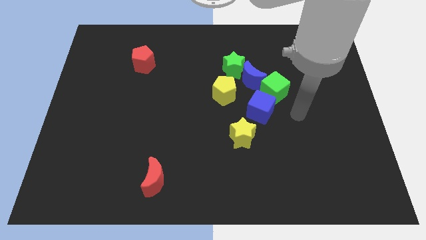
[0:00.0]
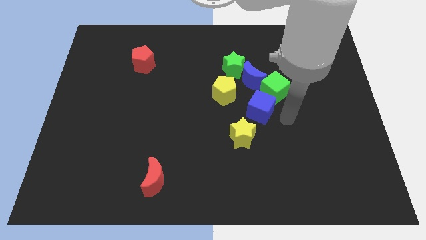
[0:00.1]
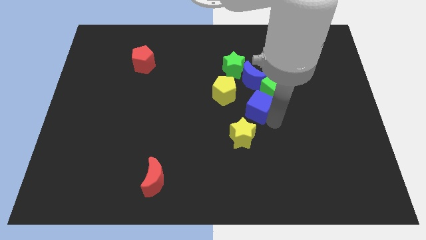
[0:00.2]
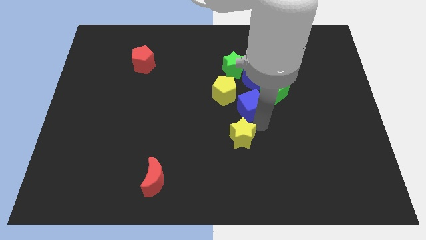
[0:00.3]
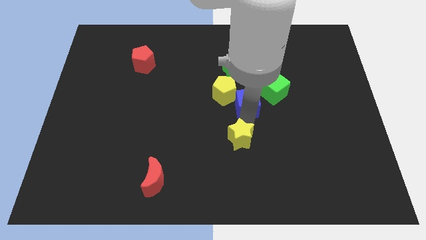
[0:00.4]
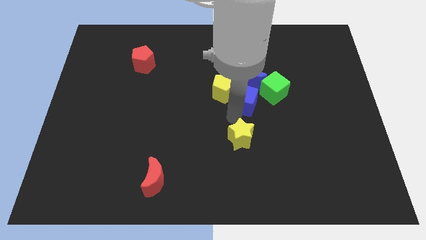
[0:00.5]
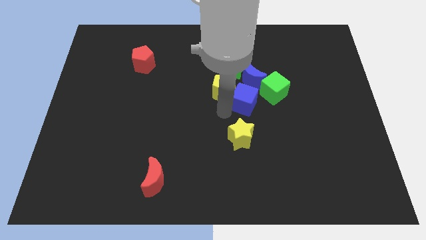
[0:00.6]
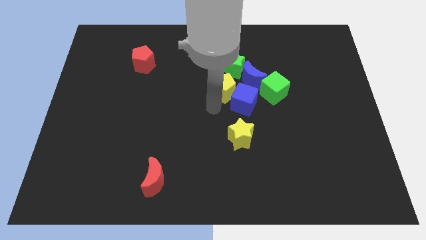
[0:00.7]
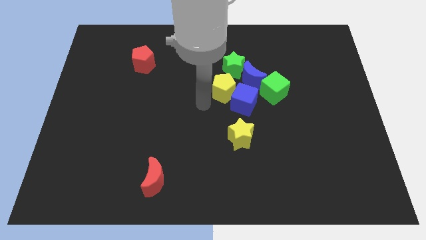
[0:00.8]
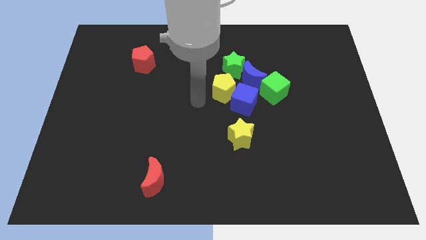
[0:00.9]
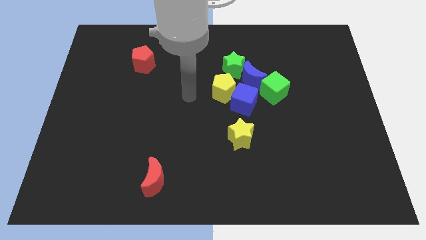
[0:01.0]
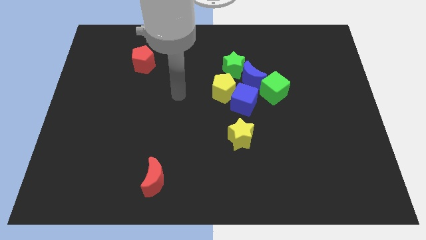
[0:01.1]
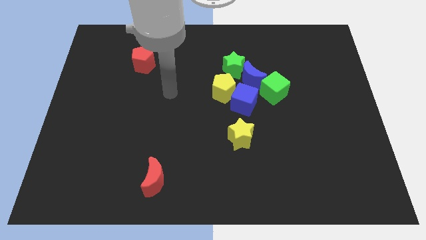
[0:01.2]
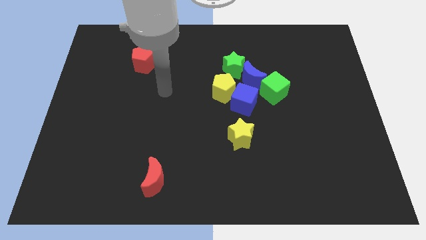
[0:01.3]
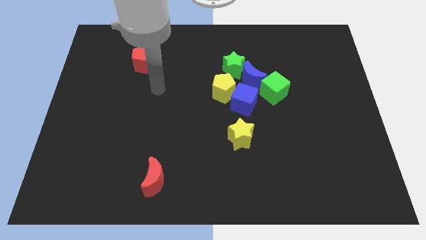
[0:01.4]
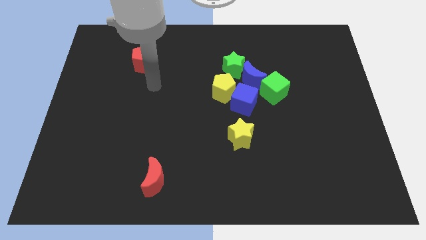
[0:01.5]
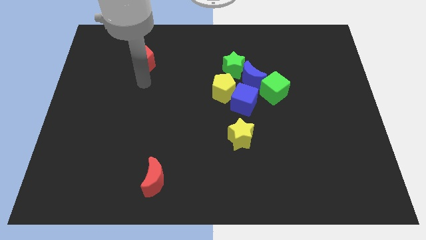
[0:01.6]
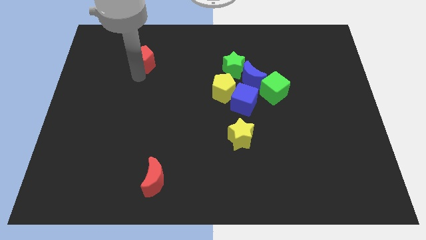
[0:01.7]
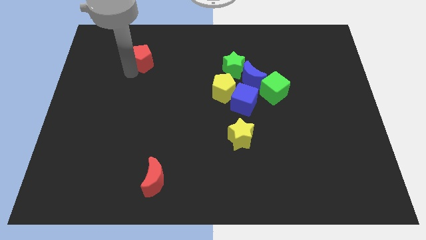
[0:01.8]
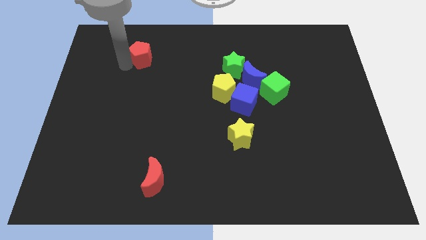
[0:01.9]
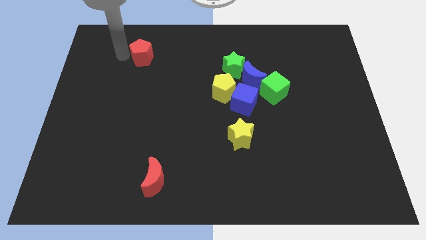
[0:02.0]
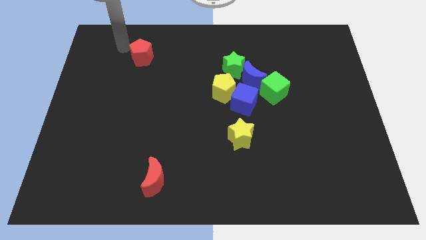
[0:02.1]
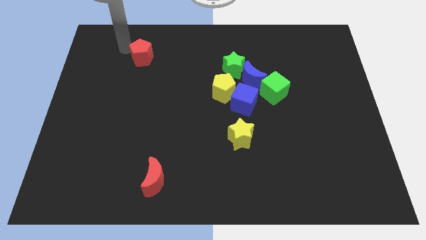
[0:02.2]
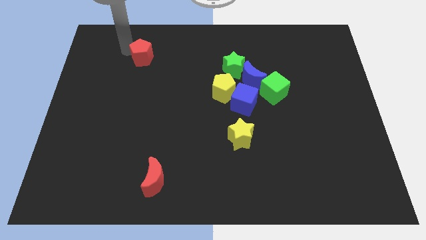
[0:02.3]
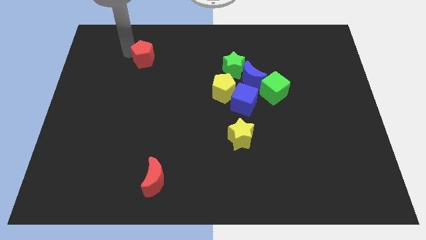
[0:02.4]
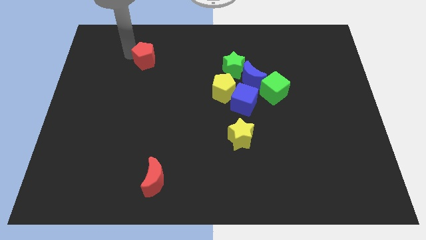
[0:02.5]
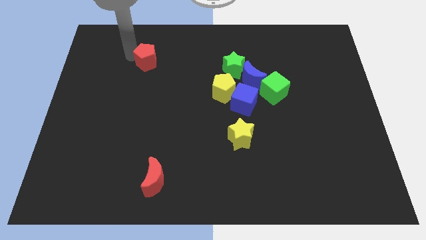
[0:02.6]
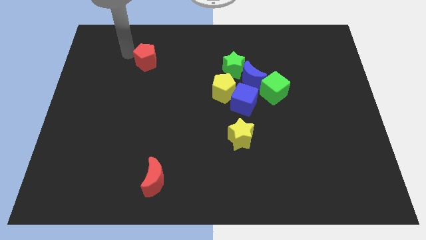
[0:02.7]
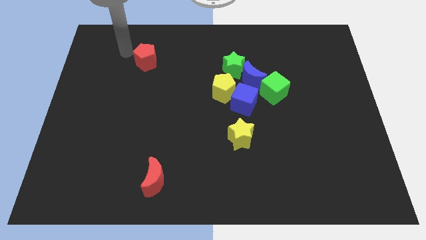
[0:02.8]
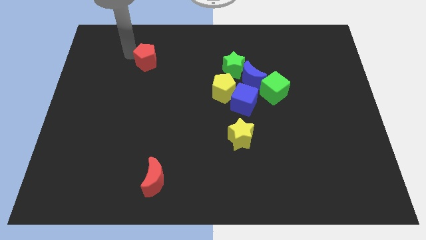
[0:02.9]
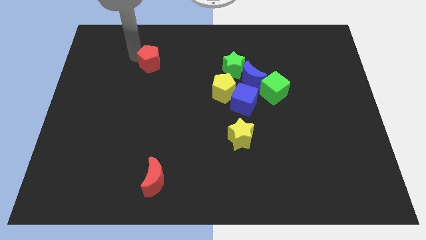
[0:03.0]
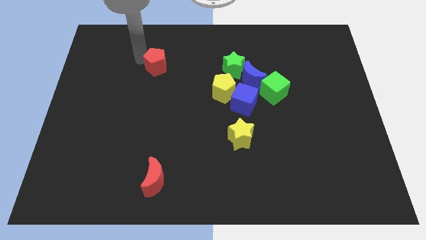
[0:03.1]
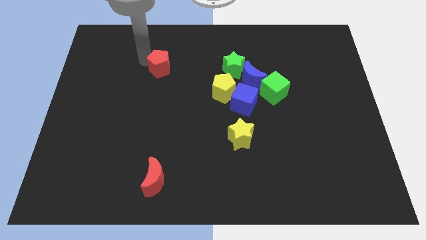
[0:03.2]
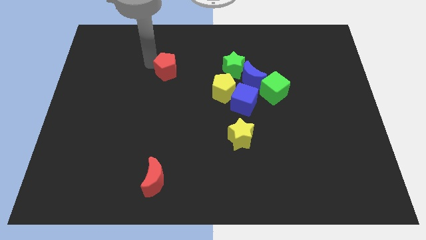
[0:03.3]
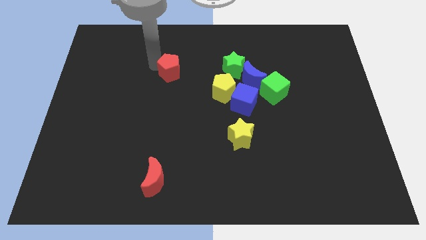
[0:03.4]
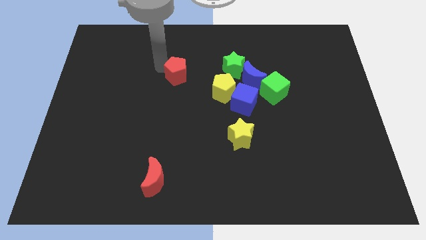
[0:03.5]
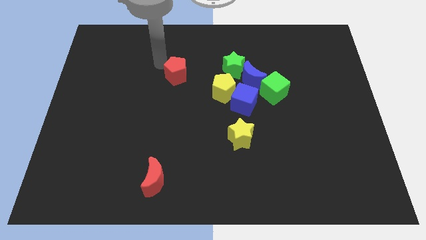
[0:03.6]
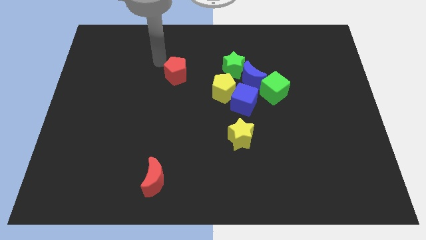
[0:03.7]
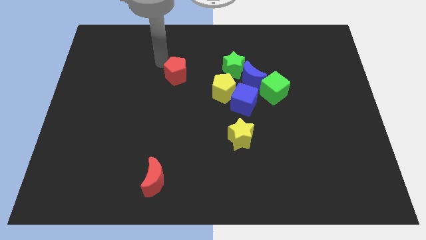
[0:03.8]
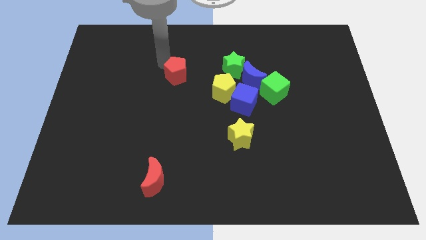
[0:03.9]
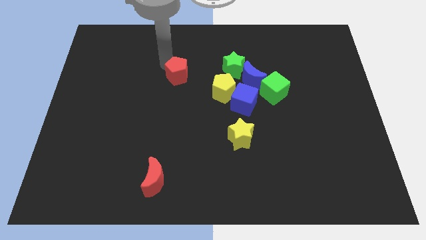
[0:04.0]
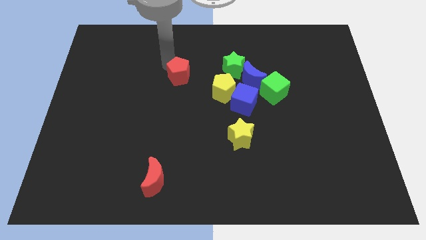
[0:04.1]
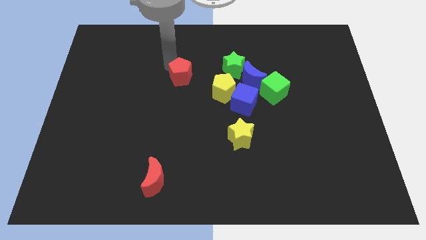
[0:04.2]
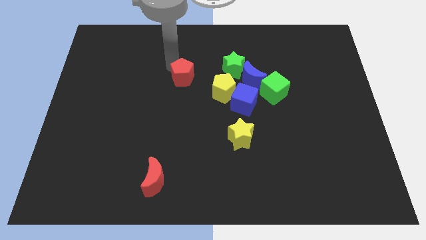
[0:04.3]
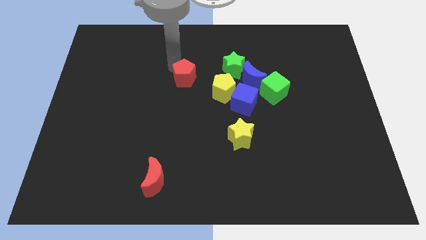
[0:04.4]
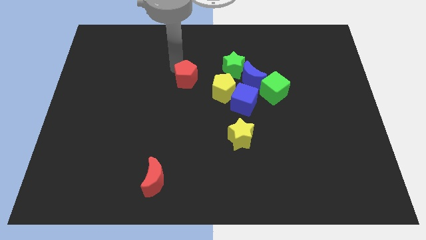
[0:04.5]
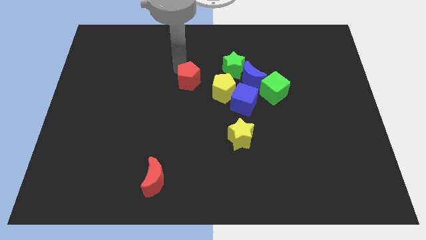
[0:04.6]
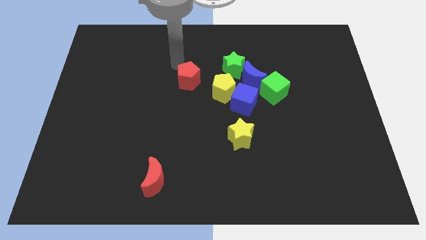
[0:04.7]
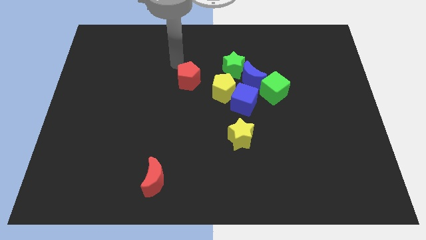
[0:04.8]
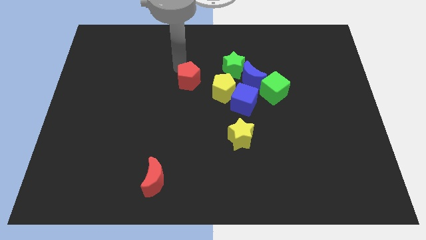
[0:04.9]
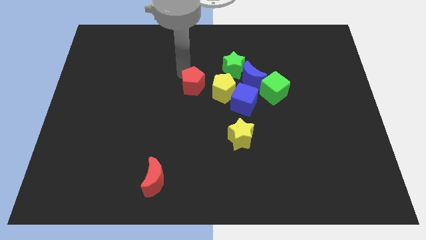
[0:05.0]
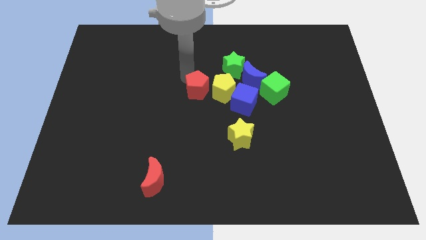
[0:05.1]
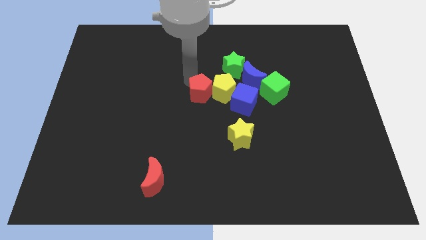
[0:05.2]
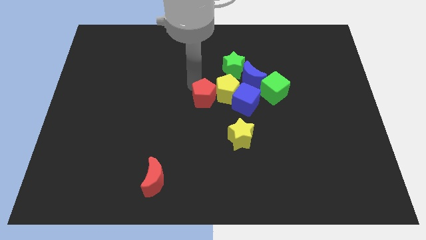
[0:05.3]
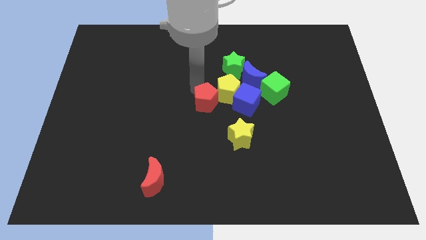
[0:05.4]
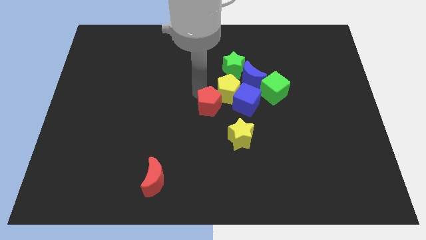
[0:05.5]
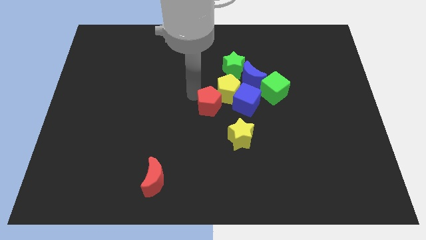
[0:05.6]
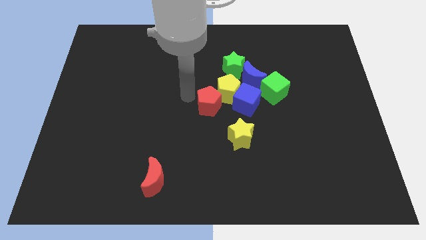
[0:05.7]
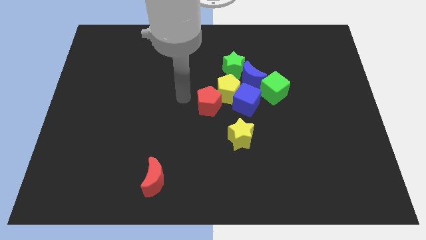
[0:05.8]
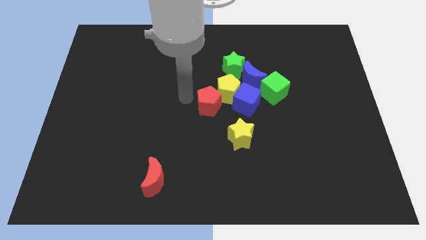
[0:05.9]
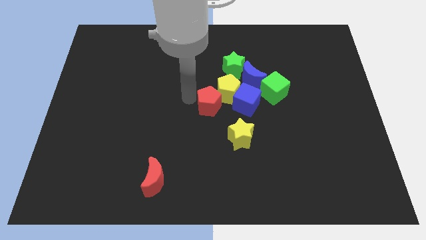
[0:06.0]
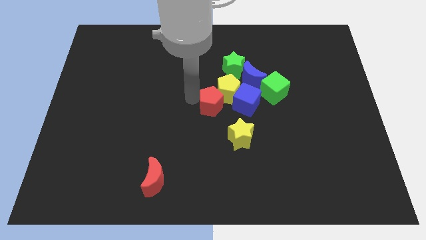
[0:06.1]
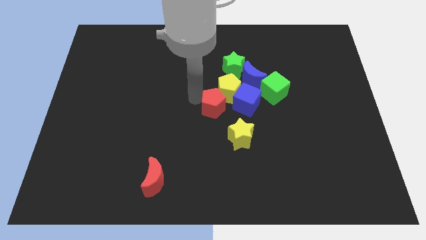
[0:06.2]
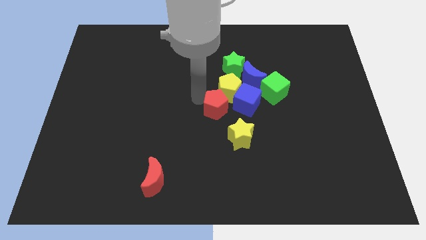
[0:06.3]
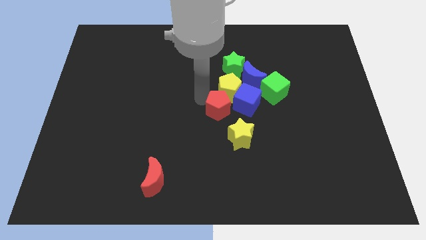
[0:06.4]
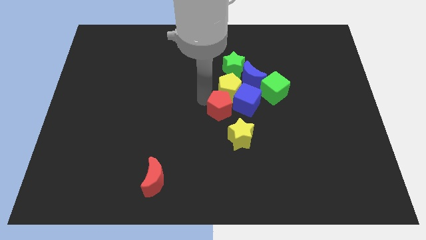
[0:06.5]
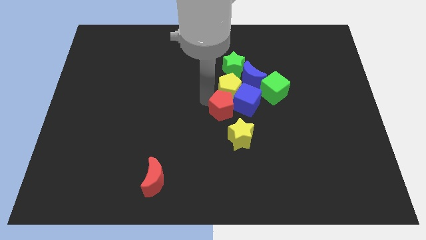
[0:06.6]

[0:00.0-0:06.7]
put the red pentagon close to the blue cube
